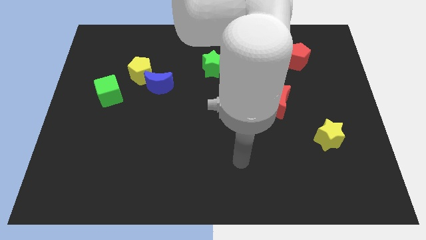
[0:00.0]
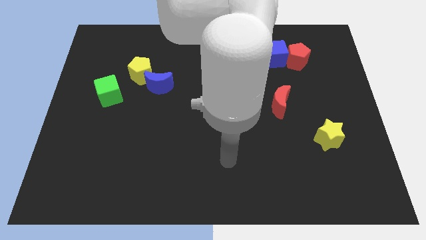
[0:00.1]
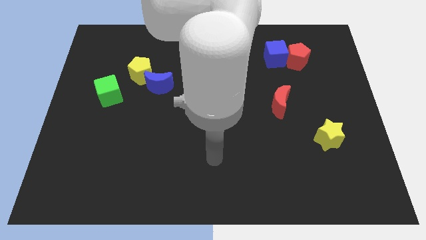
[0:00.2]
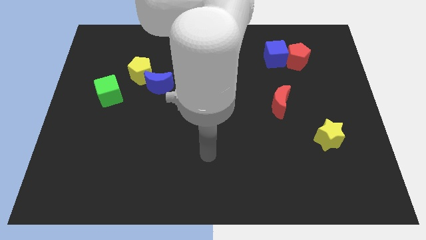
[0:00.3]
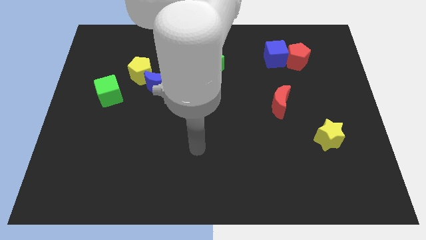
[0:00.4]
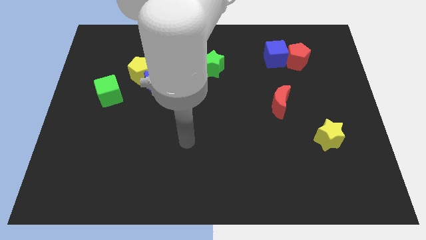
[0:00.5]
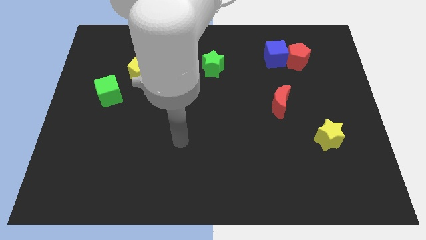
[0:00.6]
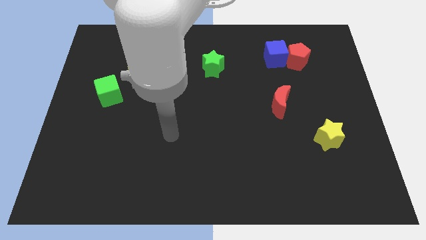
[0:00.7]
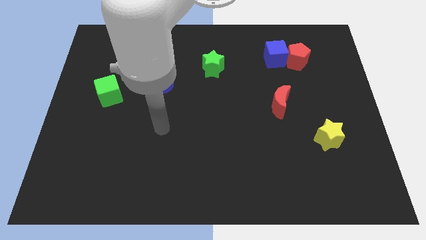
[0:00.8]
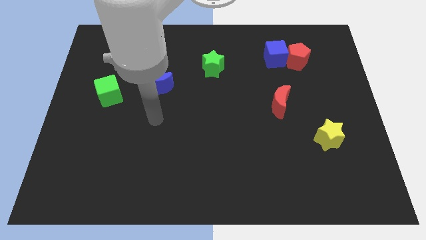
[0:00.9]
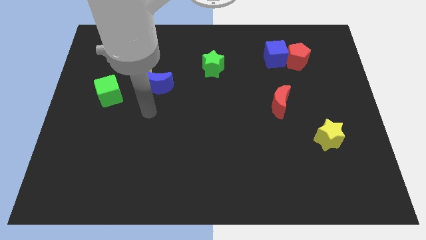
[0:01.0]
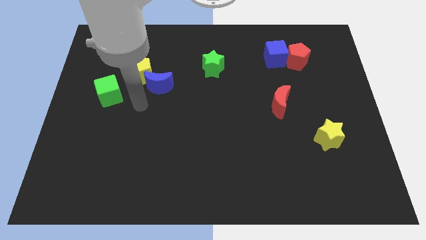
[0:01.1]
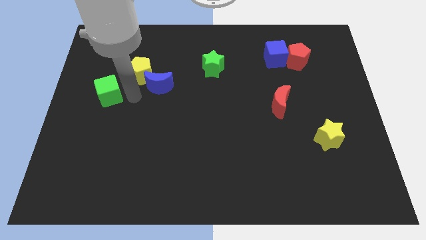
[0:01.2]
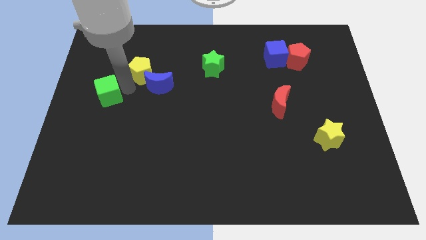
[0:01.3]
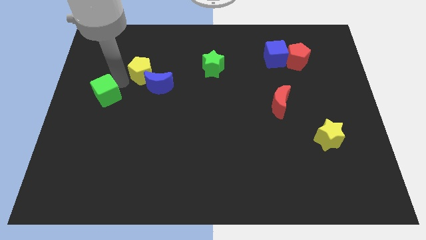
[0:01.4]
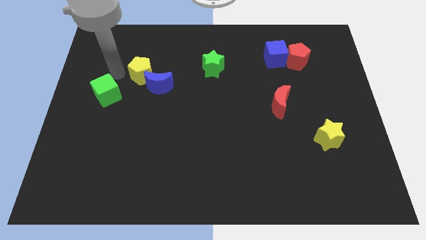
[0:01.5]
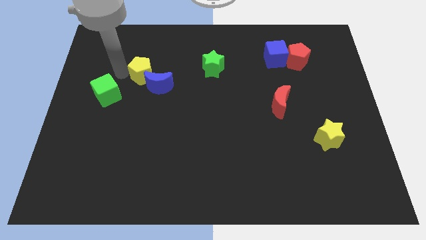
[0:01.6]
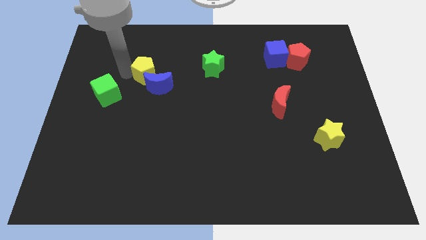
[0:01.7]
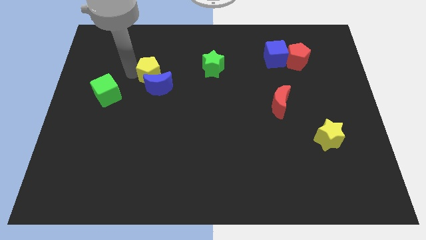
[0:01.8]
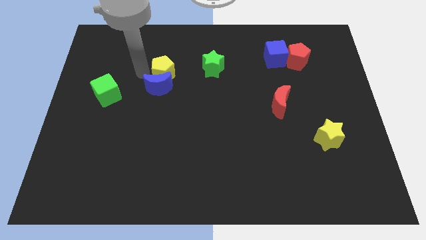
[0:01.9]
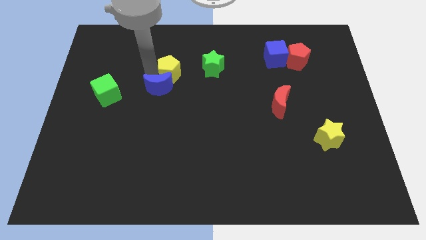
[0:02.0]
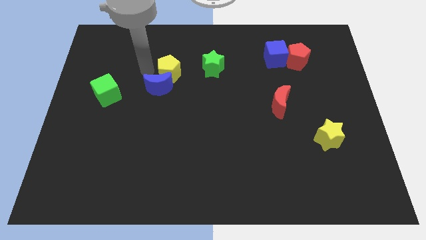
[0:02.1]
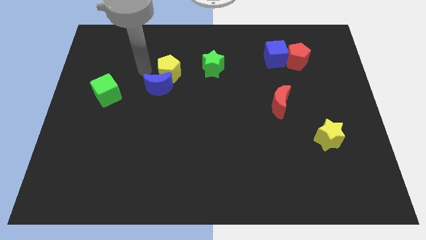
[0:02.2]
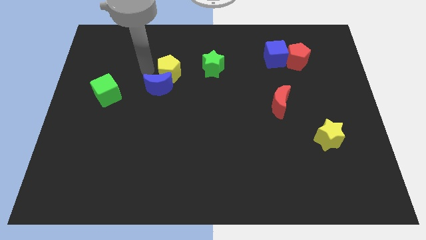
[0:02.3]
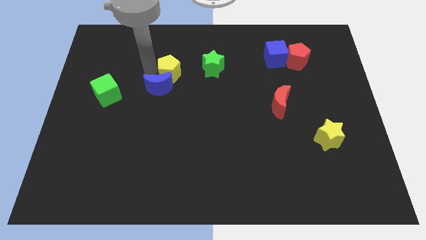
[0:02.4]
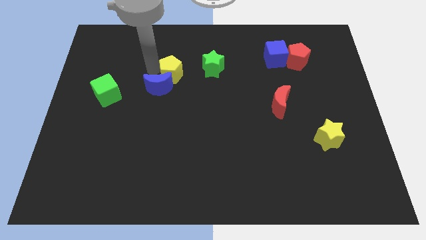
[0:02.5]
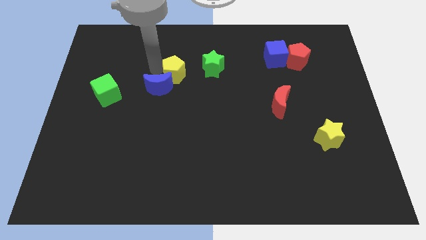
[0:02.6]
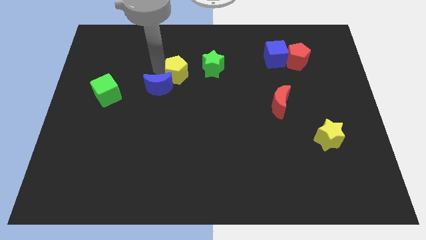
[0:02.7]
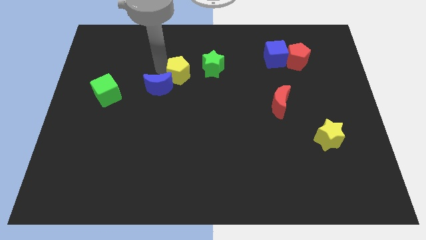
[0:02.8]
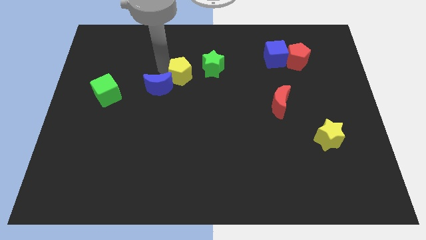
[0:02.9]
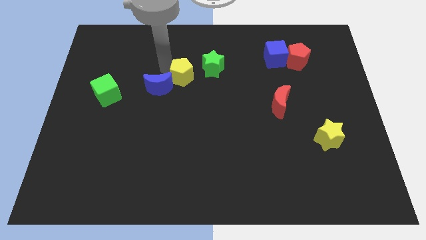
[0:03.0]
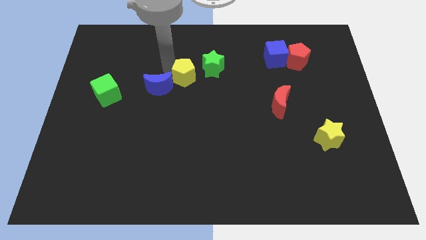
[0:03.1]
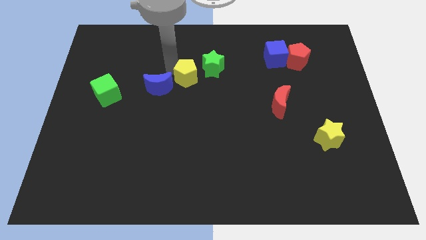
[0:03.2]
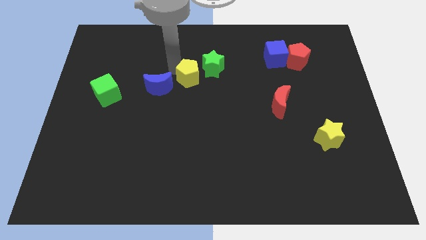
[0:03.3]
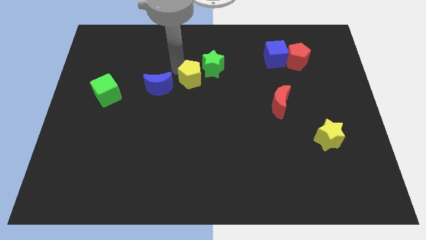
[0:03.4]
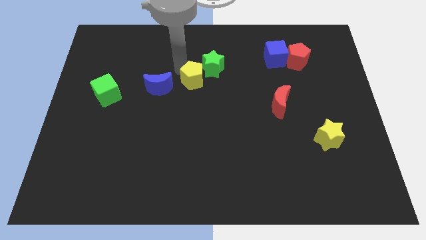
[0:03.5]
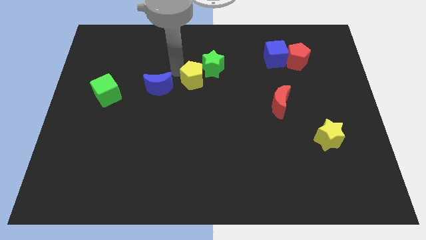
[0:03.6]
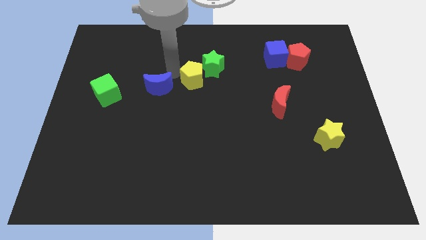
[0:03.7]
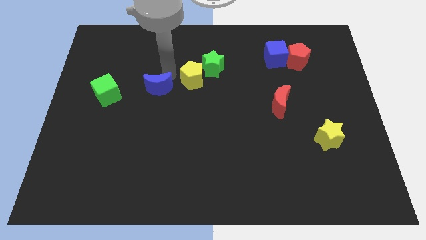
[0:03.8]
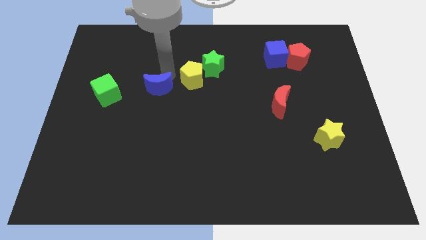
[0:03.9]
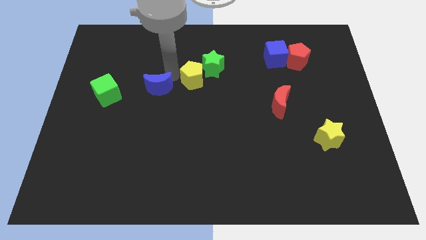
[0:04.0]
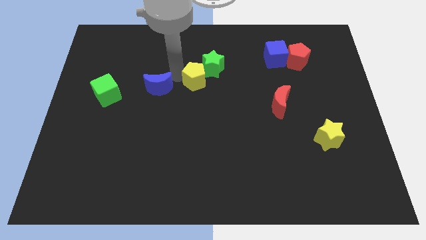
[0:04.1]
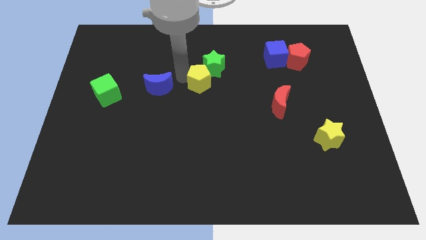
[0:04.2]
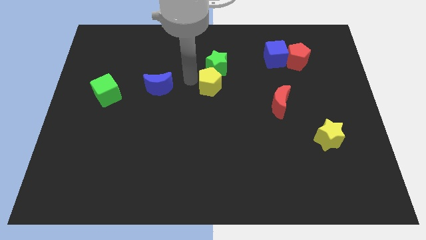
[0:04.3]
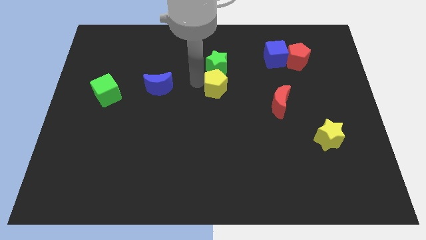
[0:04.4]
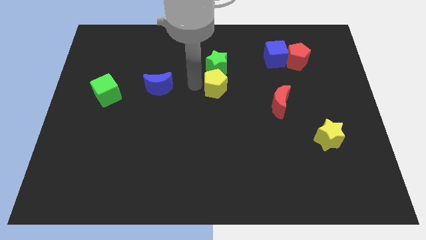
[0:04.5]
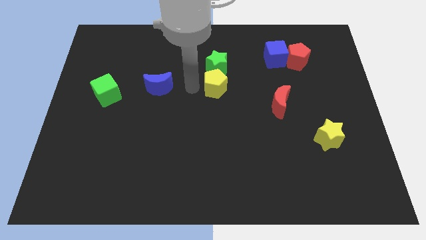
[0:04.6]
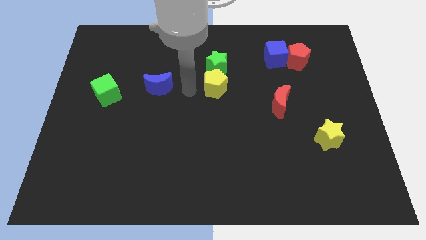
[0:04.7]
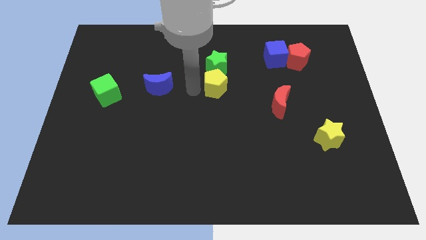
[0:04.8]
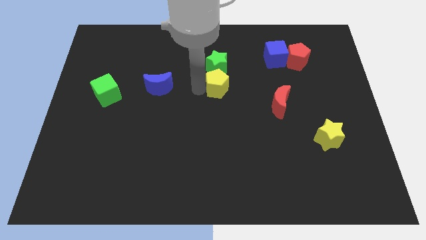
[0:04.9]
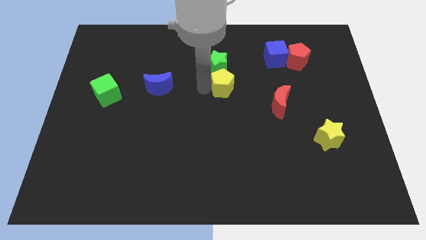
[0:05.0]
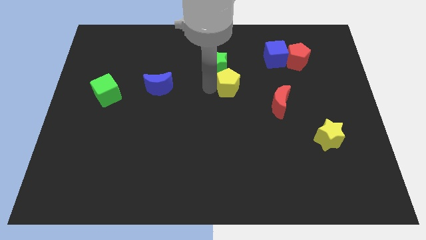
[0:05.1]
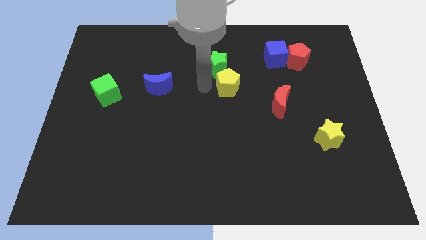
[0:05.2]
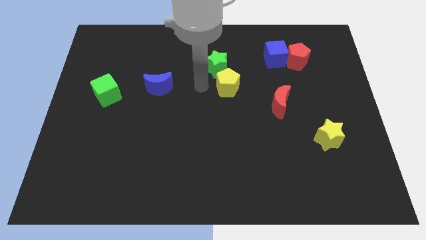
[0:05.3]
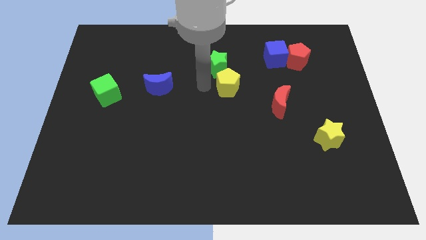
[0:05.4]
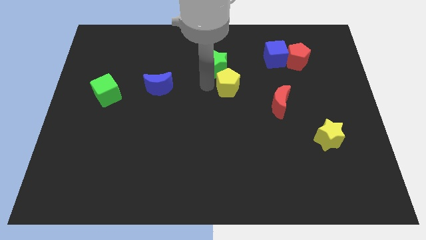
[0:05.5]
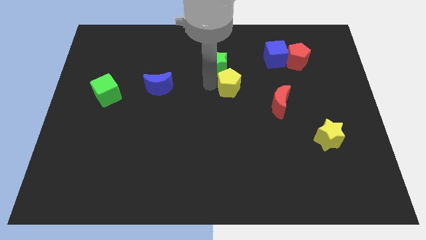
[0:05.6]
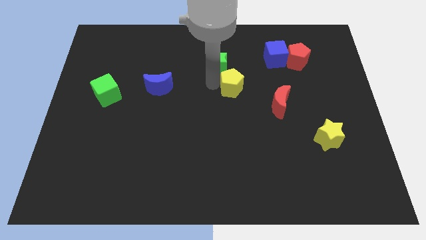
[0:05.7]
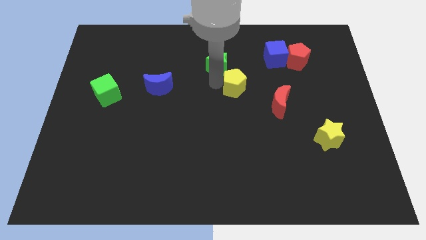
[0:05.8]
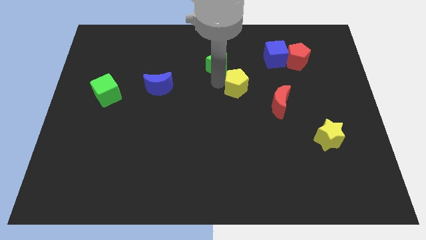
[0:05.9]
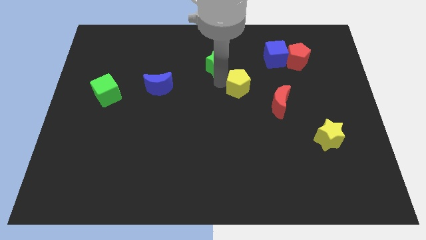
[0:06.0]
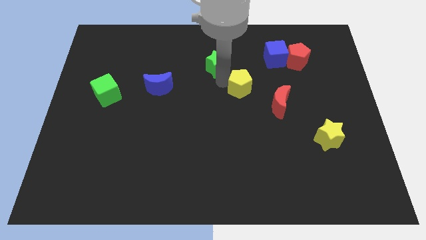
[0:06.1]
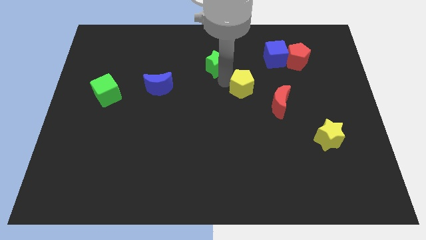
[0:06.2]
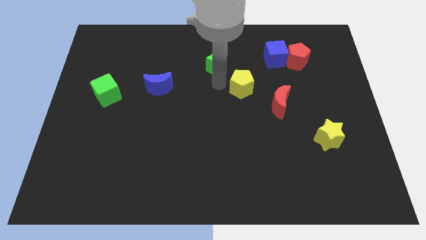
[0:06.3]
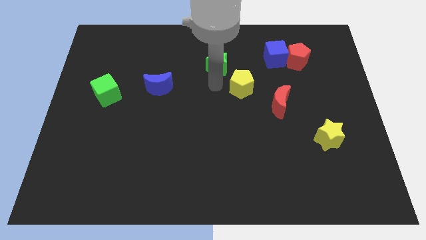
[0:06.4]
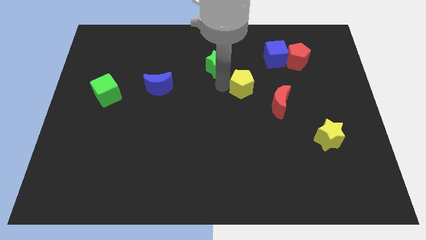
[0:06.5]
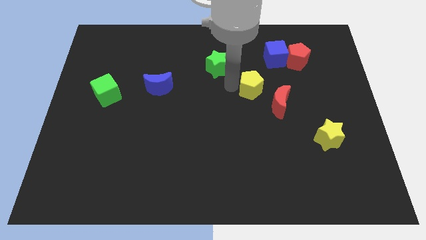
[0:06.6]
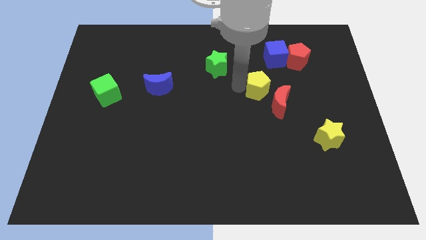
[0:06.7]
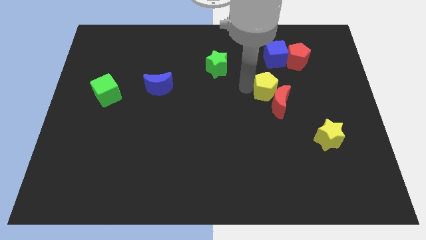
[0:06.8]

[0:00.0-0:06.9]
slide the yellow pentagon to the bottom side of the blue cube
